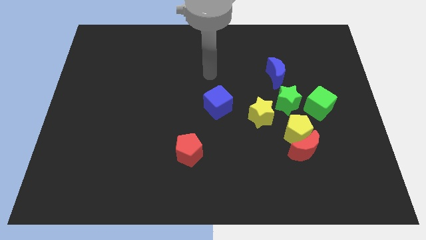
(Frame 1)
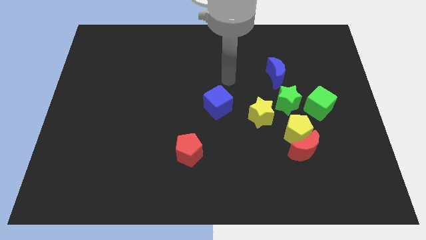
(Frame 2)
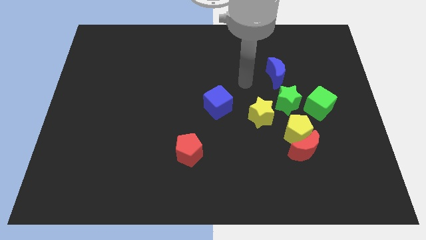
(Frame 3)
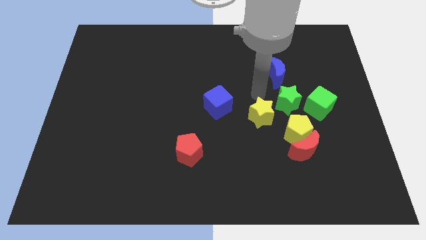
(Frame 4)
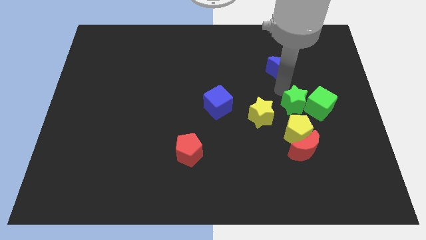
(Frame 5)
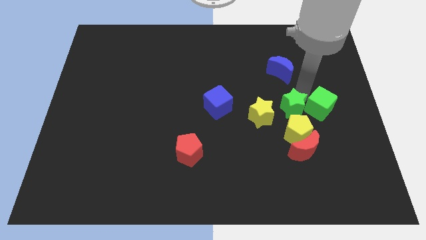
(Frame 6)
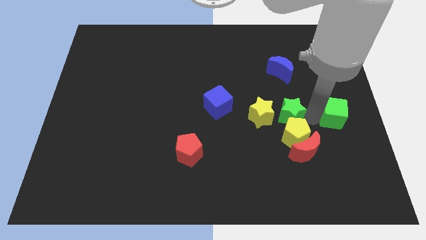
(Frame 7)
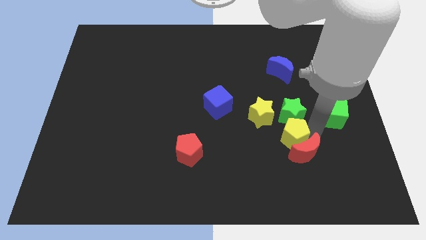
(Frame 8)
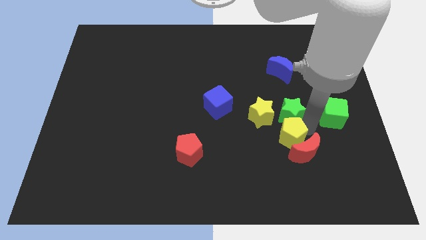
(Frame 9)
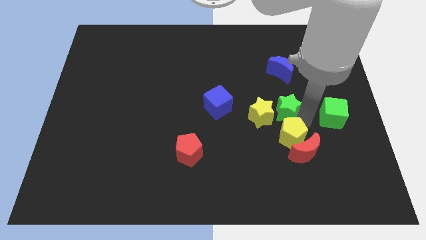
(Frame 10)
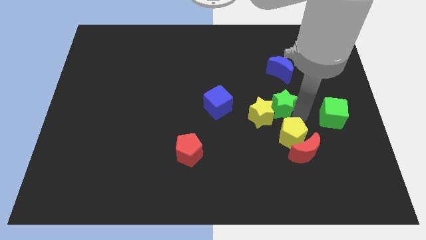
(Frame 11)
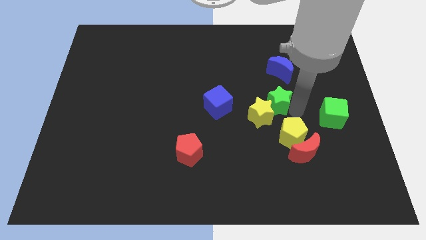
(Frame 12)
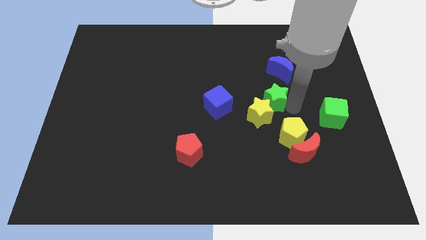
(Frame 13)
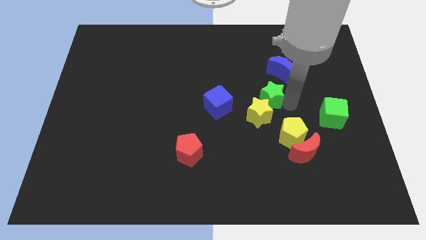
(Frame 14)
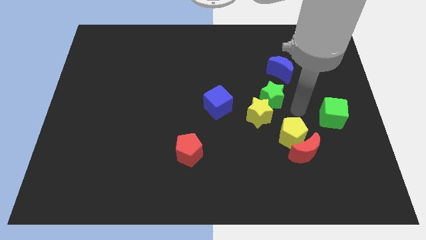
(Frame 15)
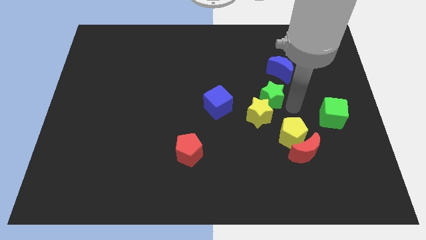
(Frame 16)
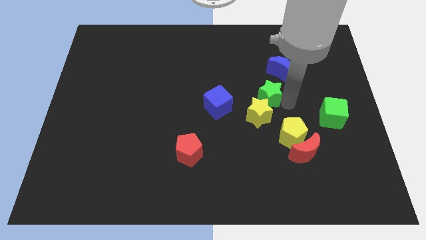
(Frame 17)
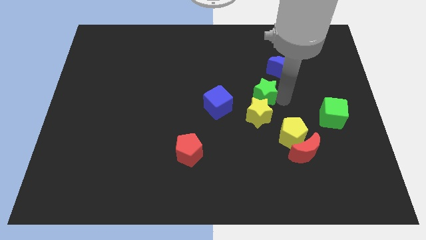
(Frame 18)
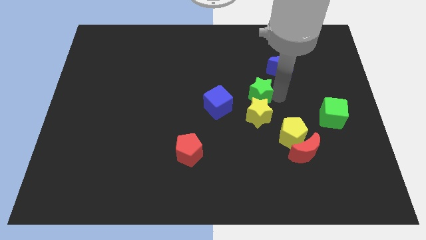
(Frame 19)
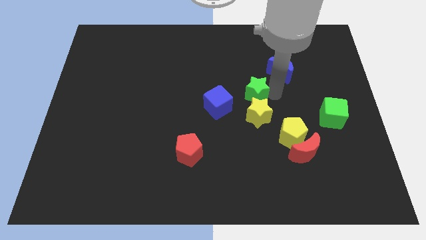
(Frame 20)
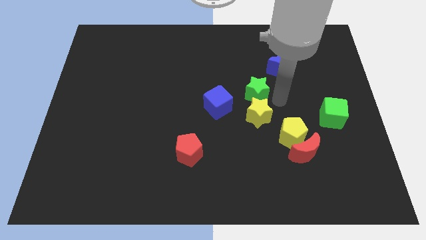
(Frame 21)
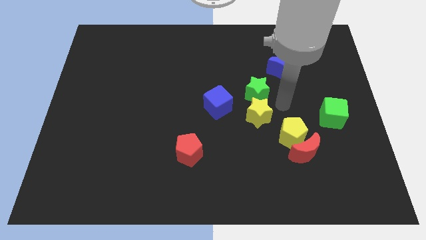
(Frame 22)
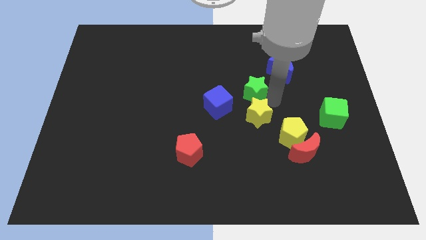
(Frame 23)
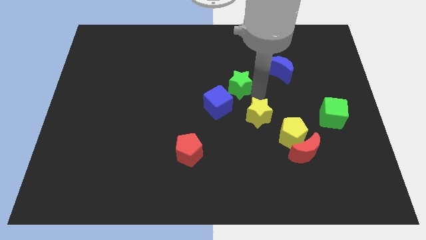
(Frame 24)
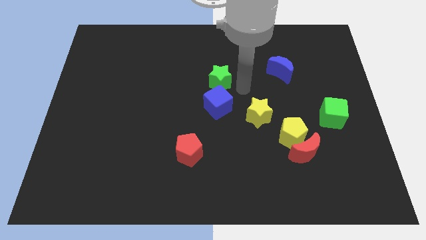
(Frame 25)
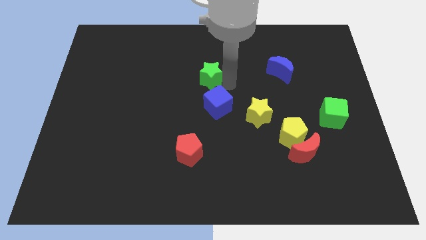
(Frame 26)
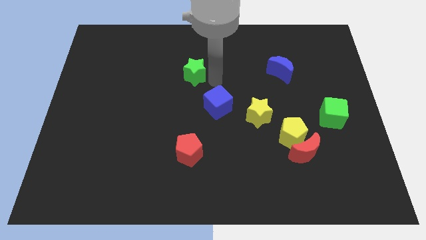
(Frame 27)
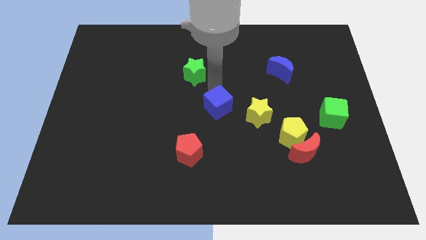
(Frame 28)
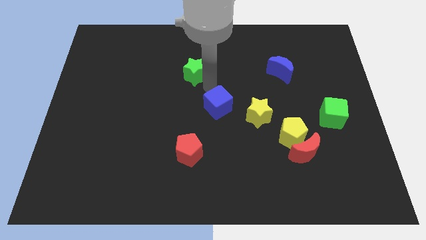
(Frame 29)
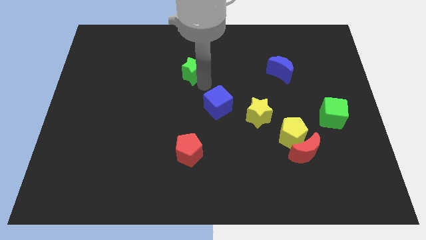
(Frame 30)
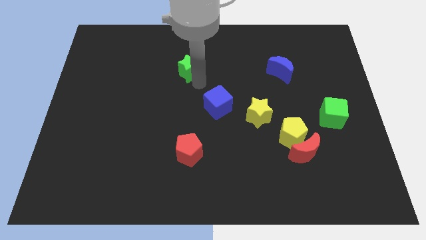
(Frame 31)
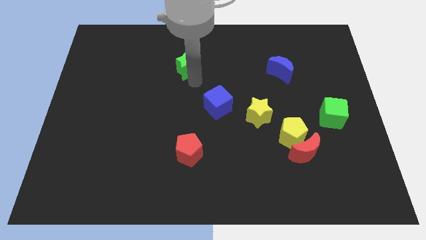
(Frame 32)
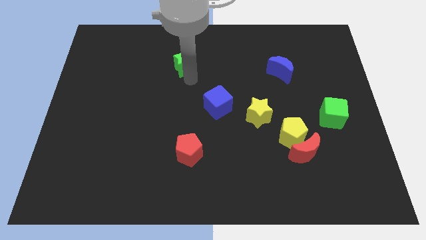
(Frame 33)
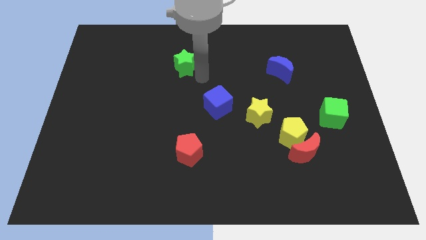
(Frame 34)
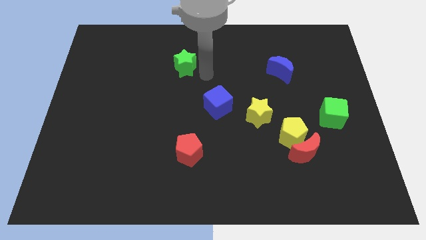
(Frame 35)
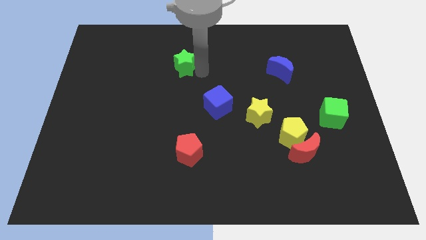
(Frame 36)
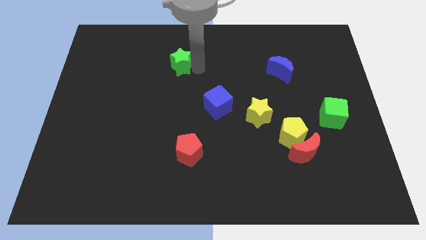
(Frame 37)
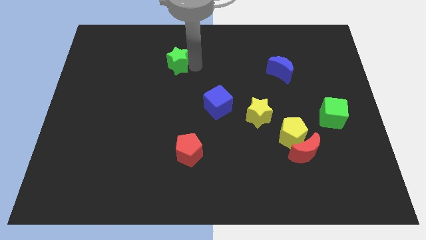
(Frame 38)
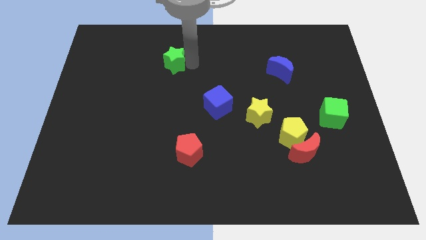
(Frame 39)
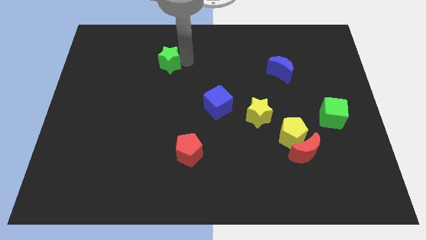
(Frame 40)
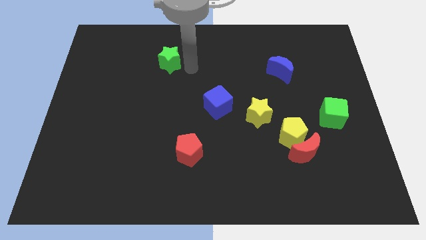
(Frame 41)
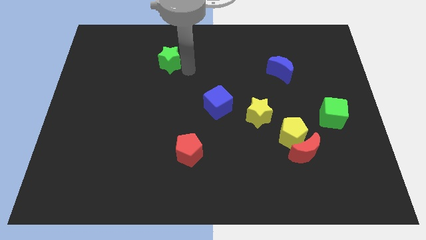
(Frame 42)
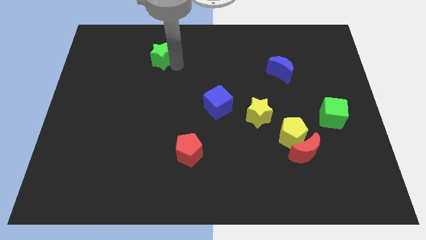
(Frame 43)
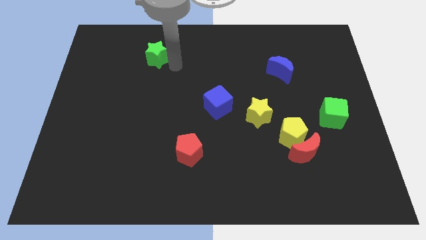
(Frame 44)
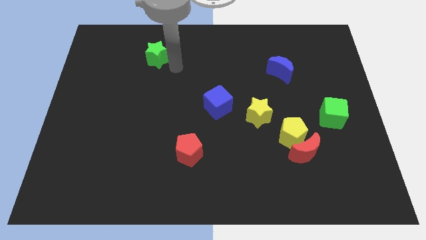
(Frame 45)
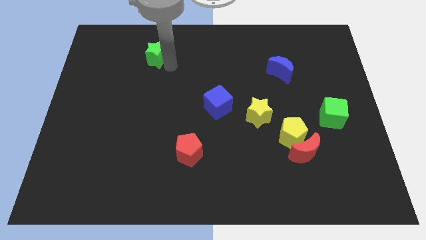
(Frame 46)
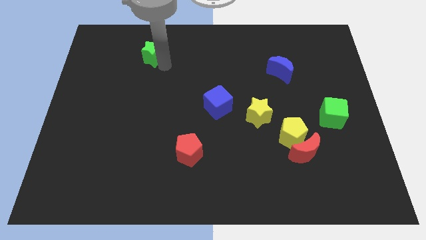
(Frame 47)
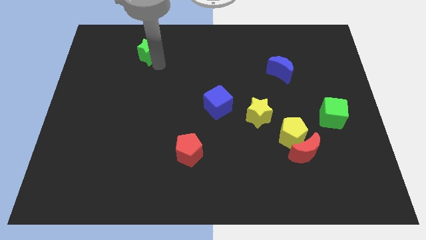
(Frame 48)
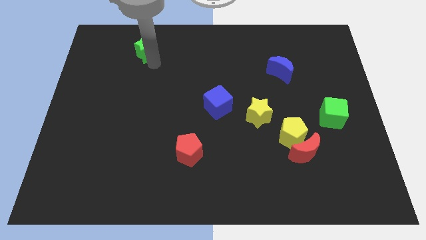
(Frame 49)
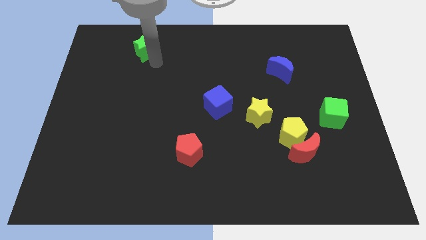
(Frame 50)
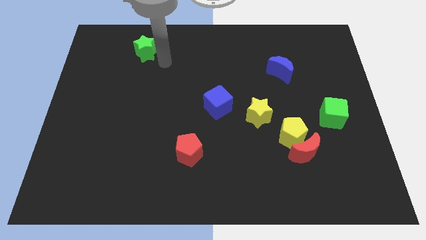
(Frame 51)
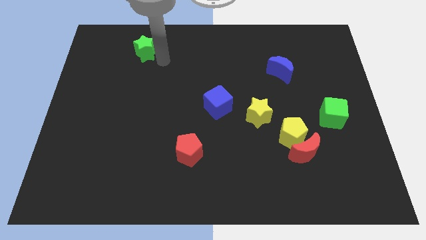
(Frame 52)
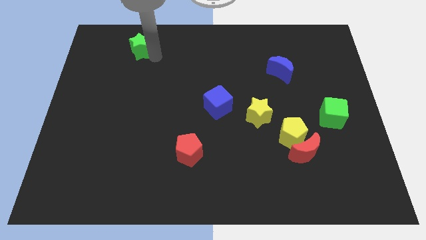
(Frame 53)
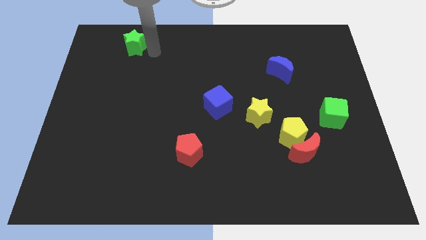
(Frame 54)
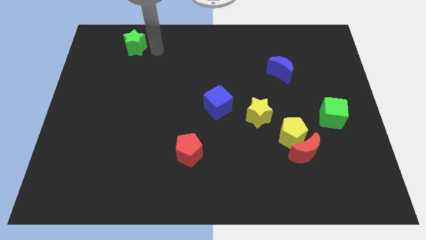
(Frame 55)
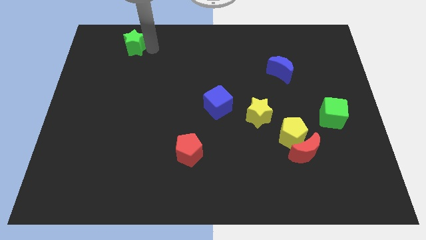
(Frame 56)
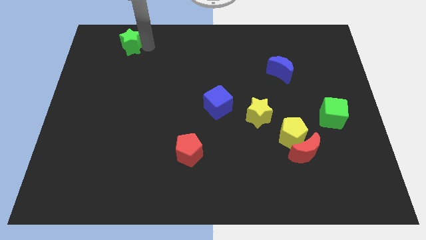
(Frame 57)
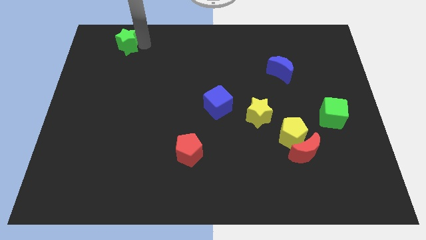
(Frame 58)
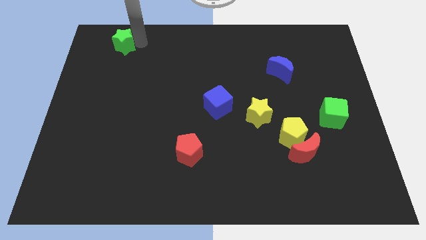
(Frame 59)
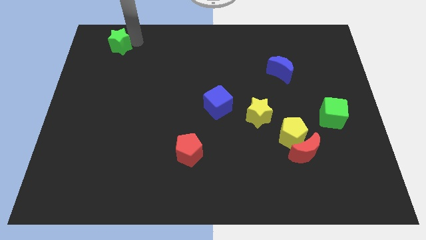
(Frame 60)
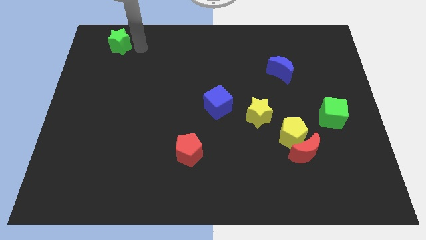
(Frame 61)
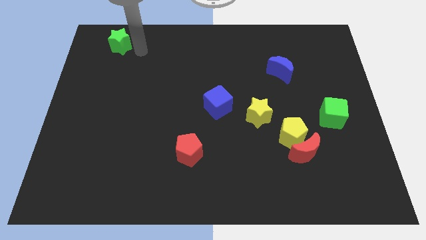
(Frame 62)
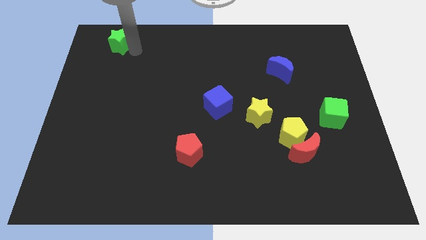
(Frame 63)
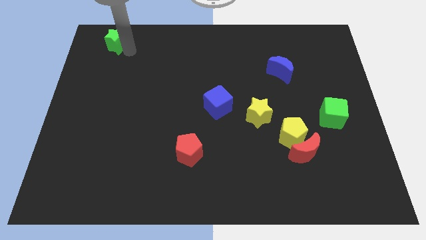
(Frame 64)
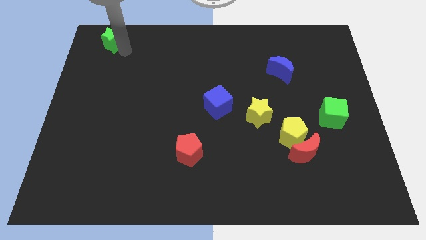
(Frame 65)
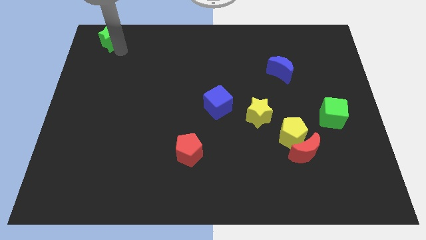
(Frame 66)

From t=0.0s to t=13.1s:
push the green star to the top left of the board

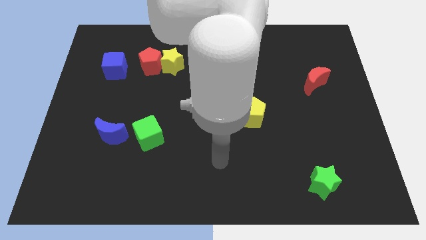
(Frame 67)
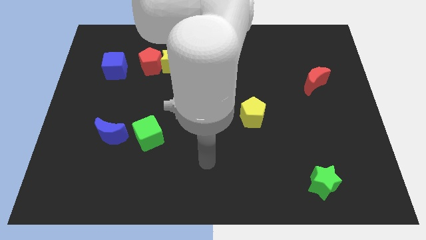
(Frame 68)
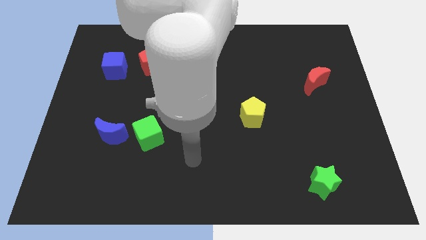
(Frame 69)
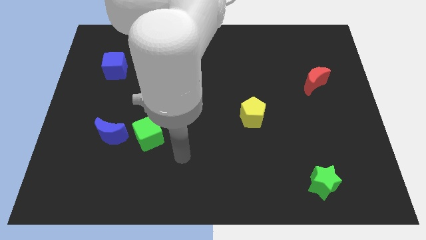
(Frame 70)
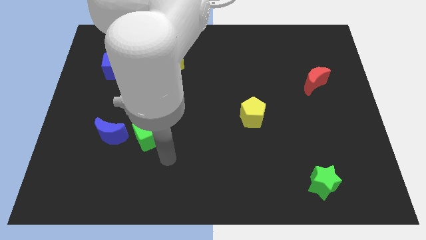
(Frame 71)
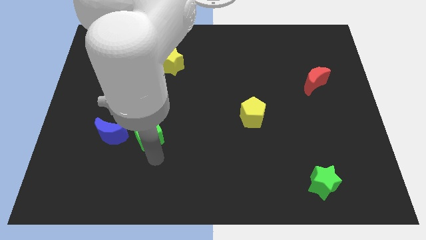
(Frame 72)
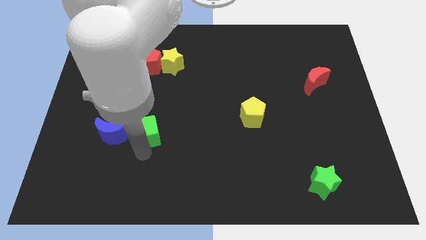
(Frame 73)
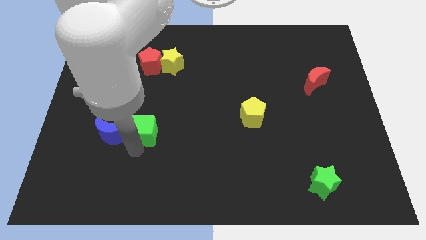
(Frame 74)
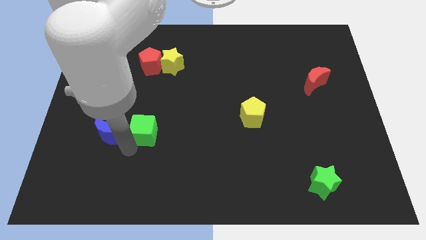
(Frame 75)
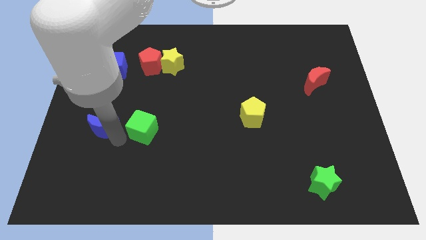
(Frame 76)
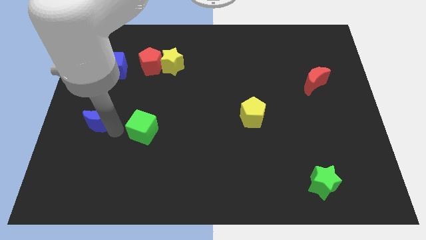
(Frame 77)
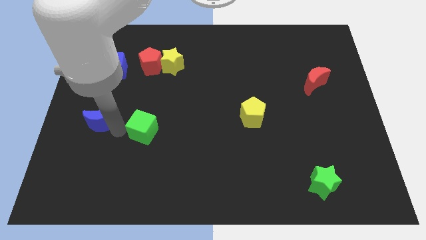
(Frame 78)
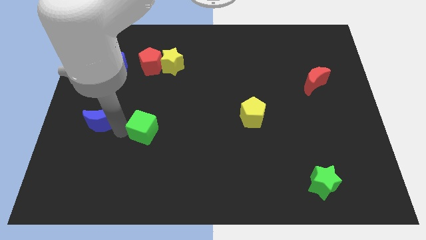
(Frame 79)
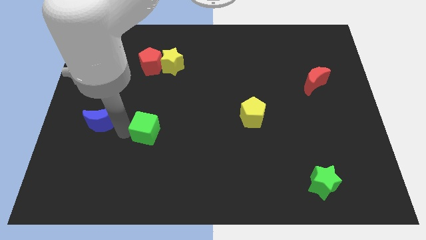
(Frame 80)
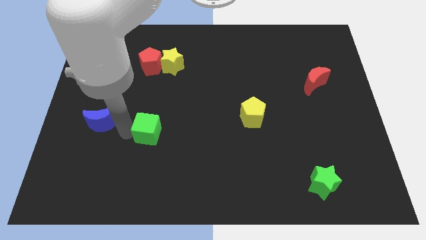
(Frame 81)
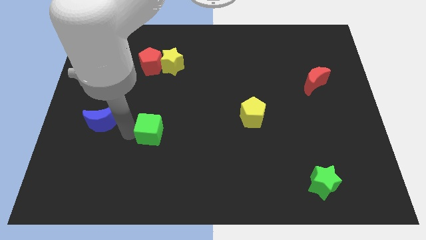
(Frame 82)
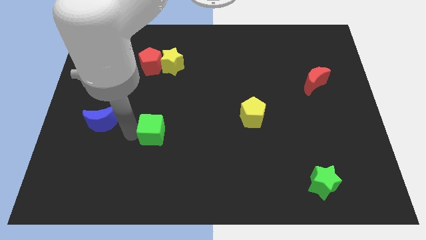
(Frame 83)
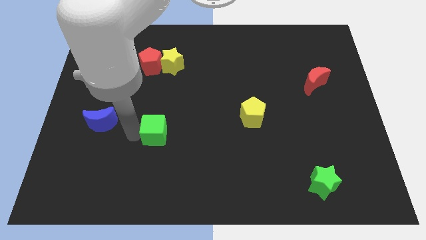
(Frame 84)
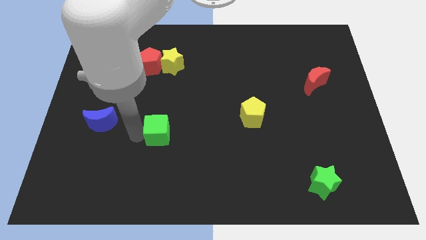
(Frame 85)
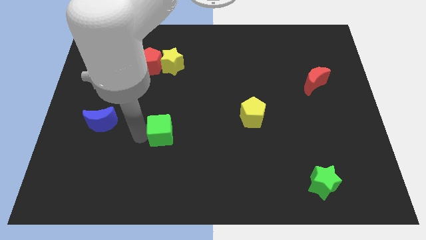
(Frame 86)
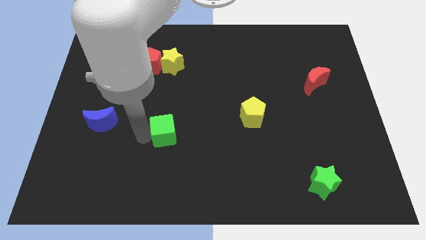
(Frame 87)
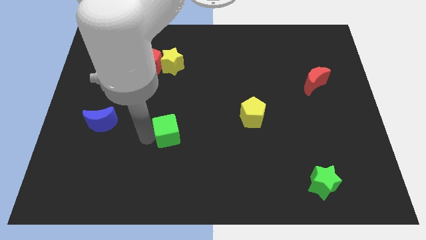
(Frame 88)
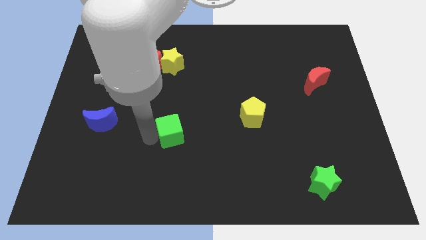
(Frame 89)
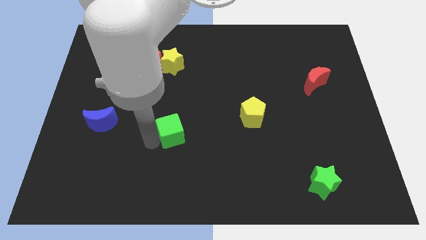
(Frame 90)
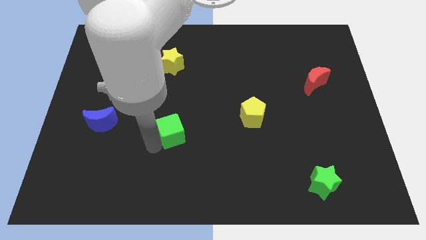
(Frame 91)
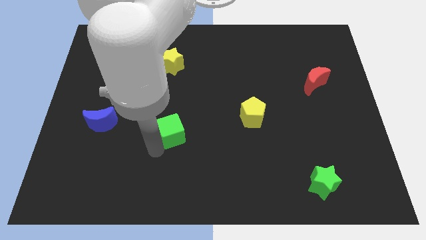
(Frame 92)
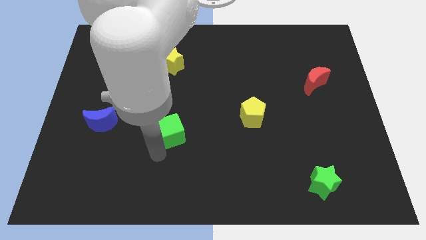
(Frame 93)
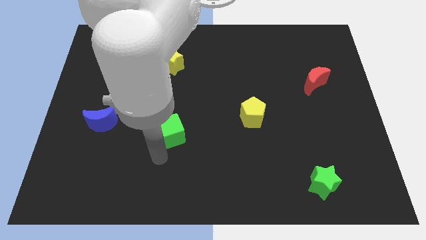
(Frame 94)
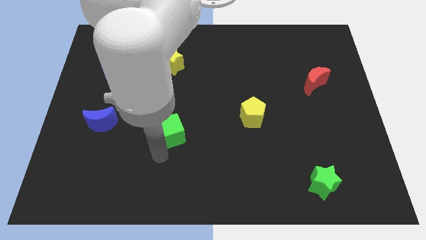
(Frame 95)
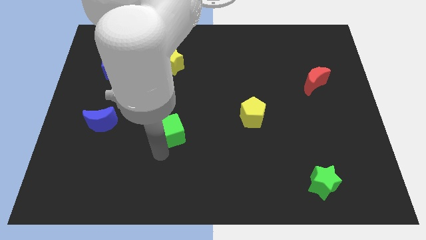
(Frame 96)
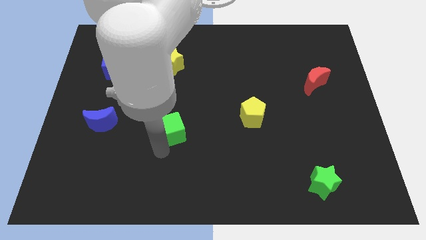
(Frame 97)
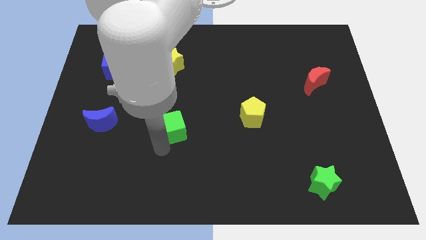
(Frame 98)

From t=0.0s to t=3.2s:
slide the green cube to the center
